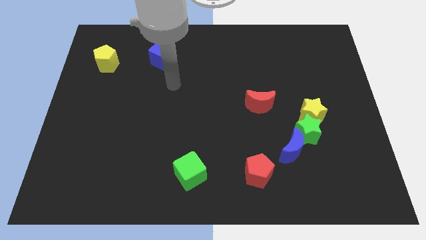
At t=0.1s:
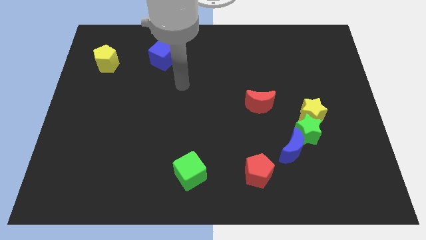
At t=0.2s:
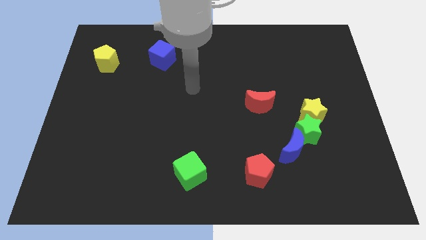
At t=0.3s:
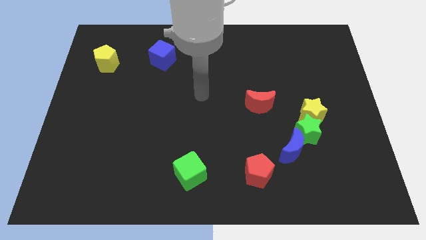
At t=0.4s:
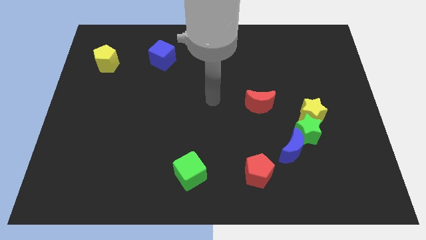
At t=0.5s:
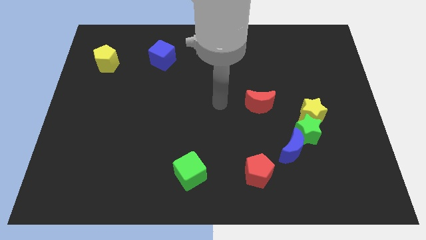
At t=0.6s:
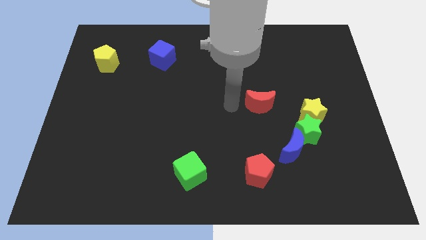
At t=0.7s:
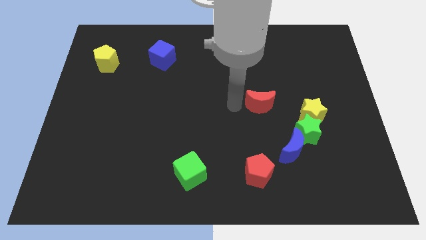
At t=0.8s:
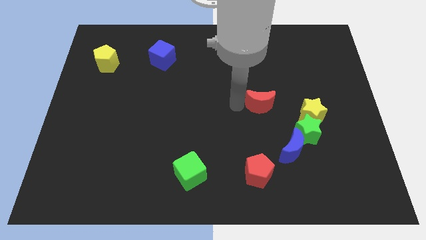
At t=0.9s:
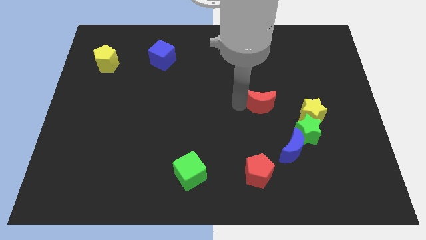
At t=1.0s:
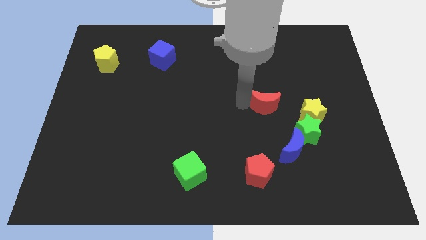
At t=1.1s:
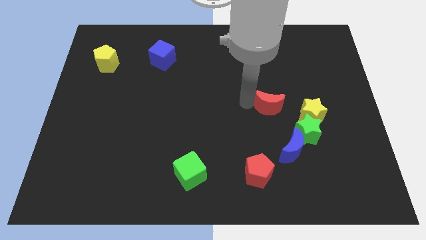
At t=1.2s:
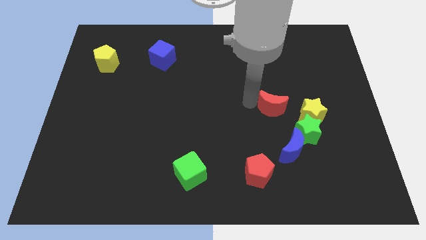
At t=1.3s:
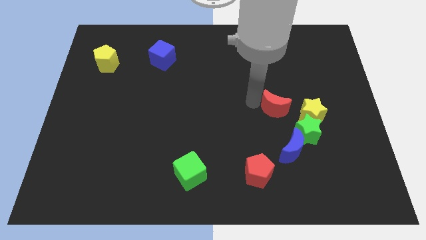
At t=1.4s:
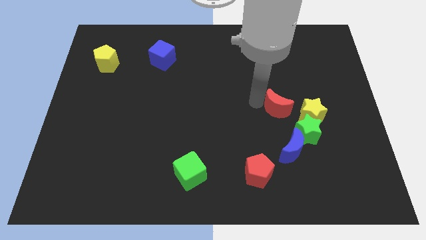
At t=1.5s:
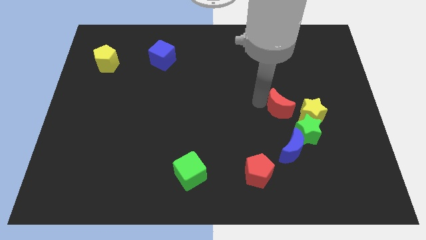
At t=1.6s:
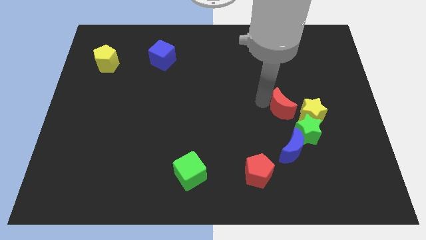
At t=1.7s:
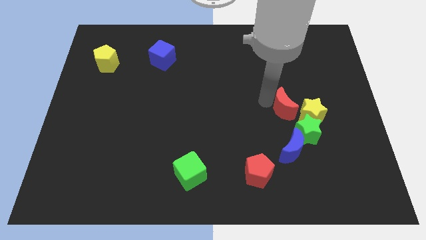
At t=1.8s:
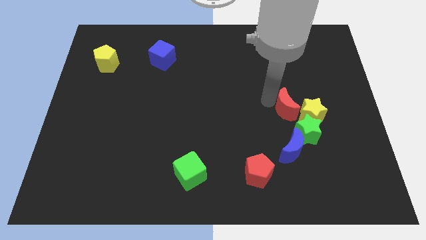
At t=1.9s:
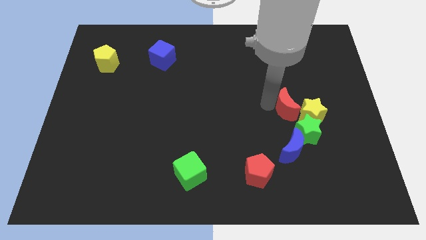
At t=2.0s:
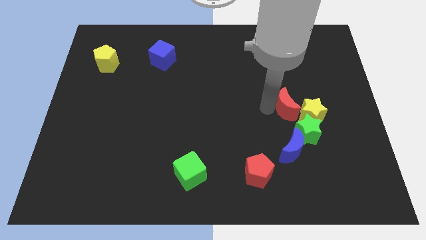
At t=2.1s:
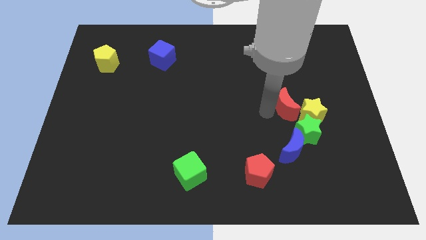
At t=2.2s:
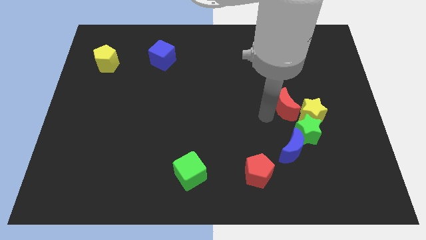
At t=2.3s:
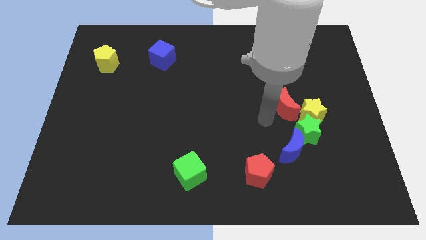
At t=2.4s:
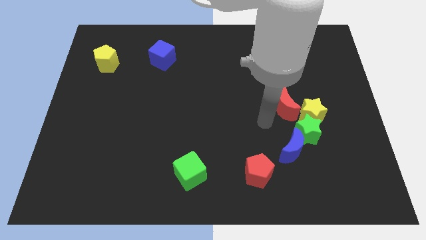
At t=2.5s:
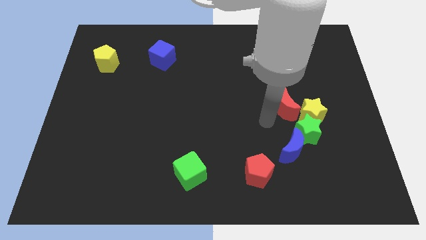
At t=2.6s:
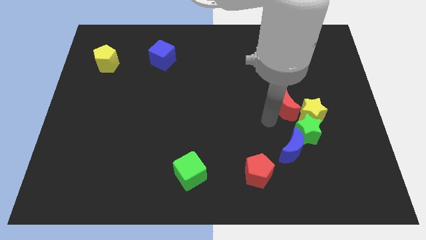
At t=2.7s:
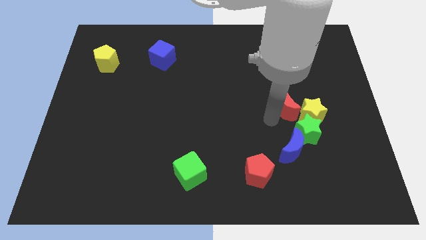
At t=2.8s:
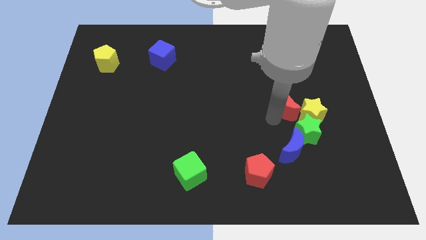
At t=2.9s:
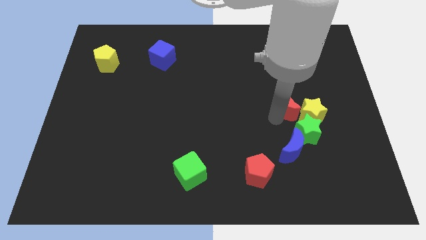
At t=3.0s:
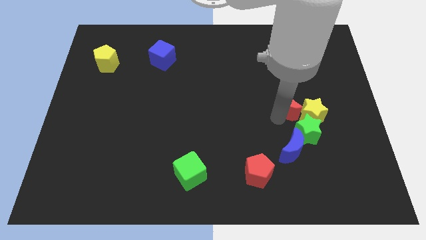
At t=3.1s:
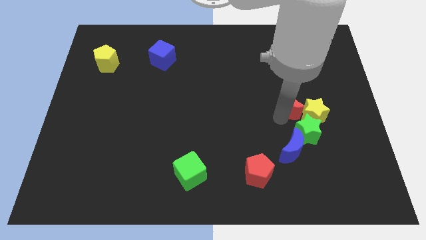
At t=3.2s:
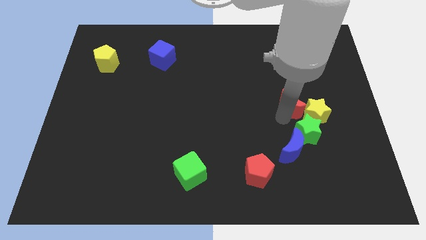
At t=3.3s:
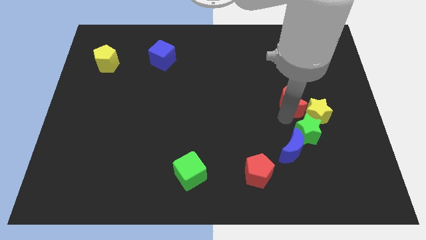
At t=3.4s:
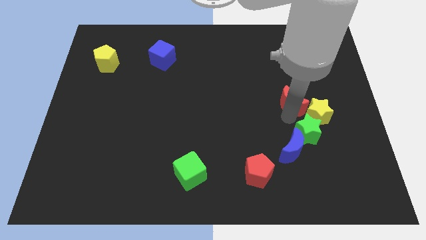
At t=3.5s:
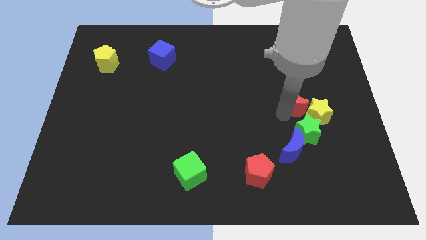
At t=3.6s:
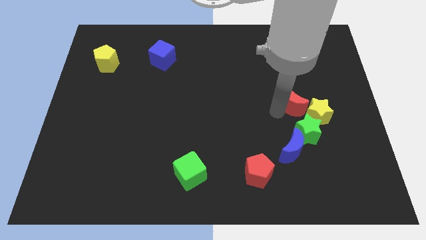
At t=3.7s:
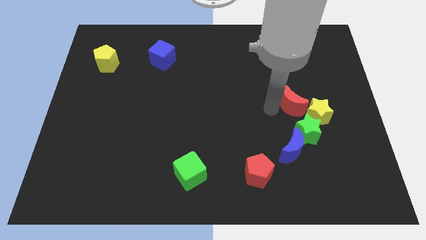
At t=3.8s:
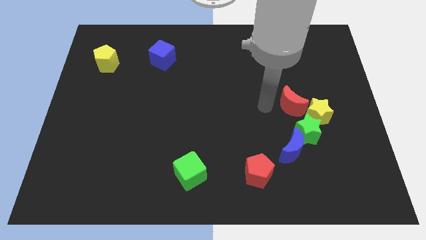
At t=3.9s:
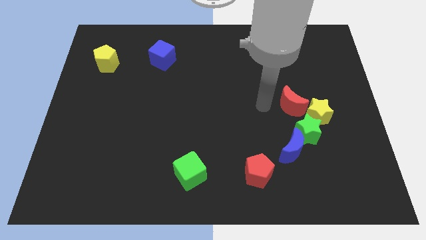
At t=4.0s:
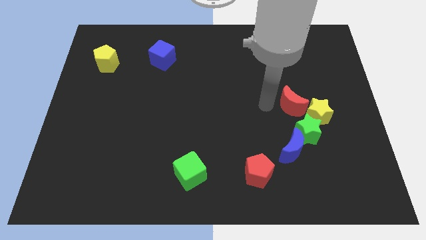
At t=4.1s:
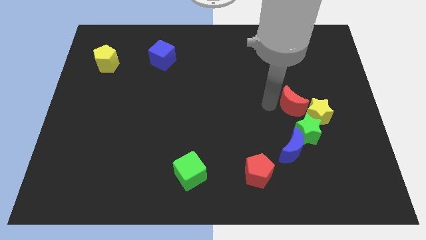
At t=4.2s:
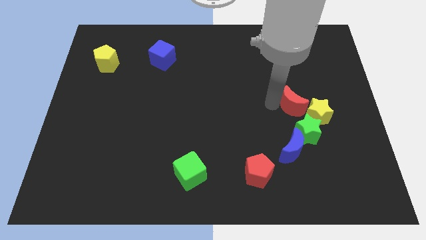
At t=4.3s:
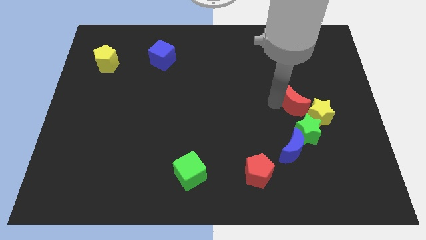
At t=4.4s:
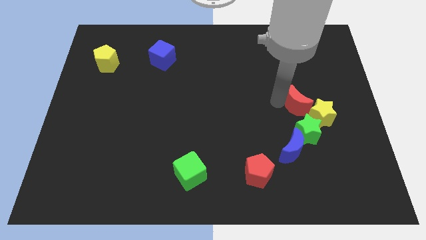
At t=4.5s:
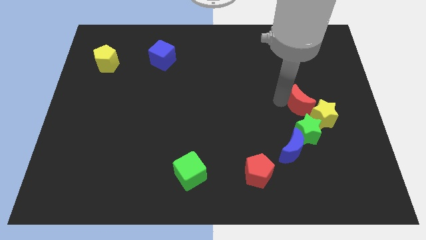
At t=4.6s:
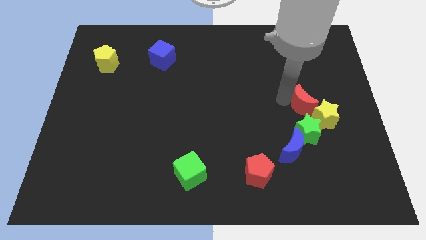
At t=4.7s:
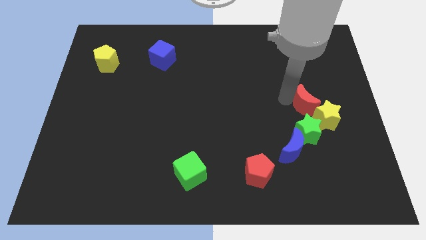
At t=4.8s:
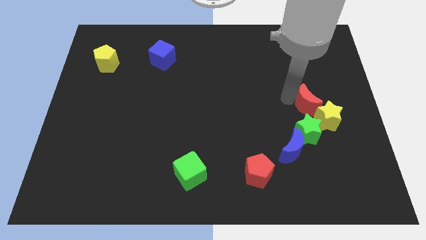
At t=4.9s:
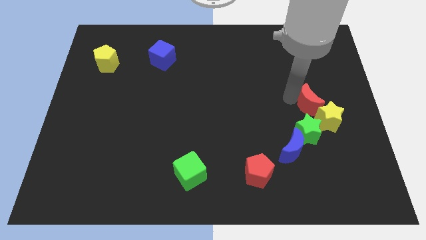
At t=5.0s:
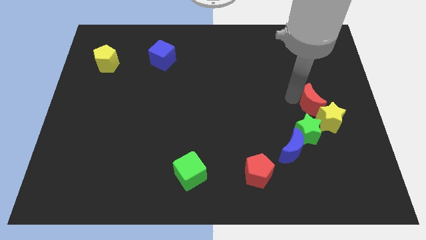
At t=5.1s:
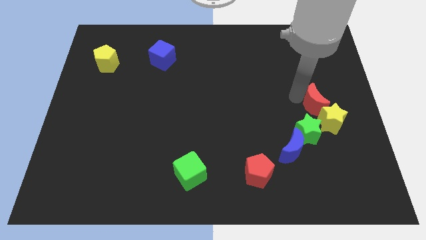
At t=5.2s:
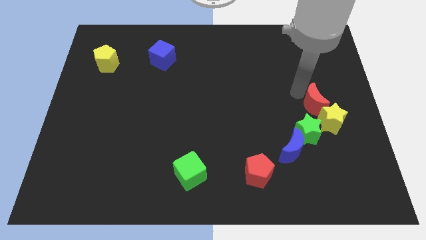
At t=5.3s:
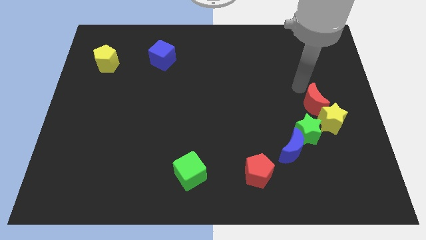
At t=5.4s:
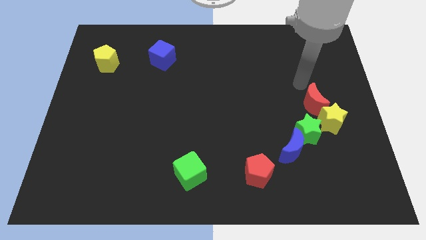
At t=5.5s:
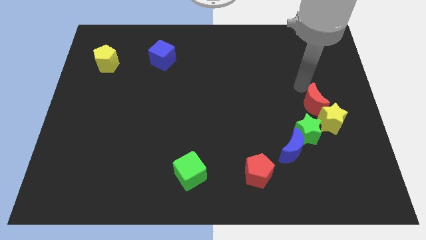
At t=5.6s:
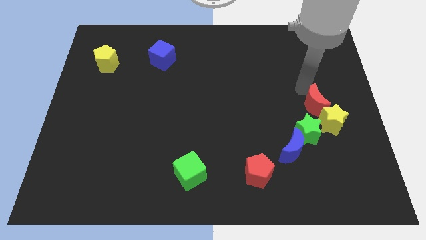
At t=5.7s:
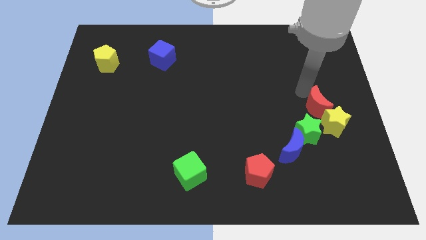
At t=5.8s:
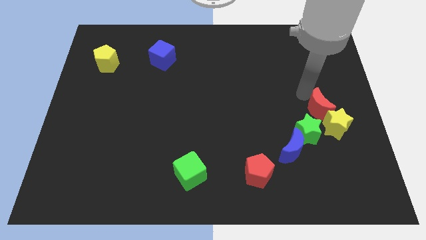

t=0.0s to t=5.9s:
slide the red moon down and then to the right a little

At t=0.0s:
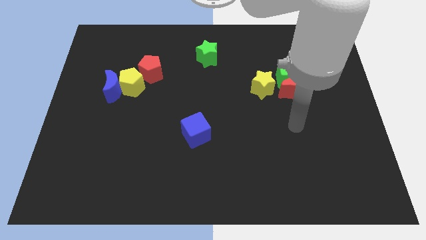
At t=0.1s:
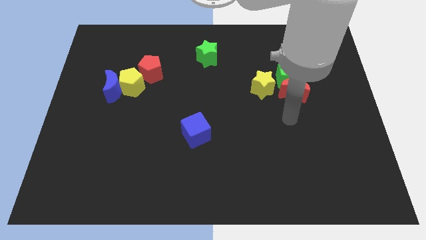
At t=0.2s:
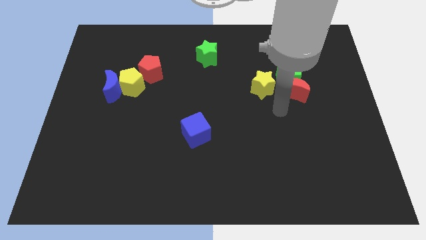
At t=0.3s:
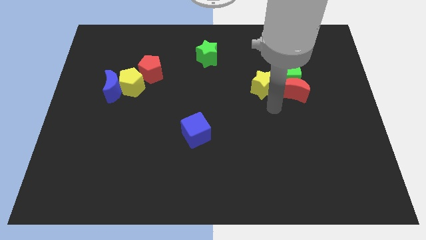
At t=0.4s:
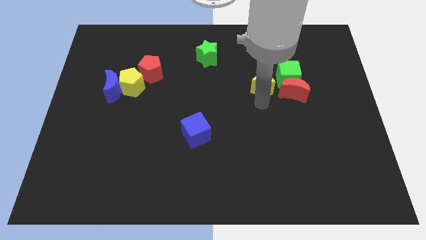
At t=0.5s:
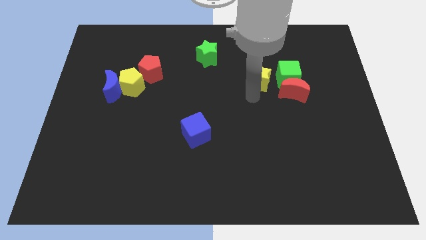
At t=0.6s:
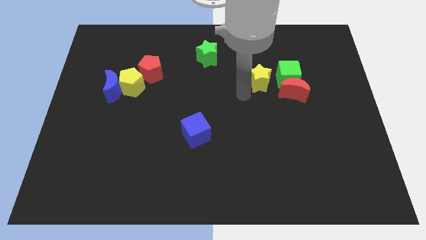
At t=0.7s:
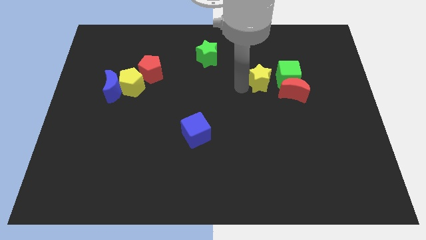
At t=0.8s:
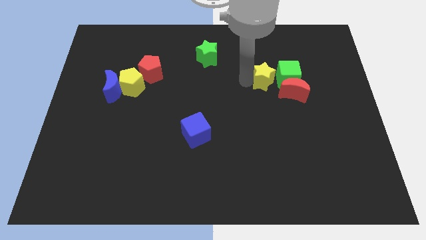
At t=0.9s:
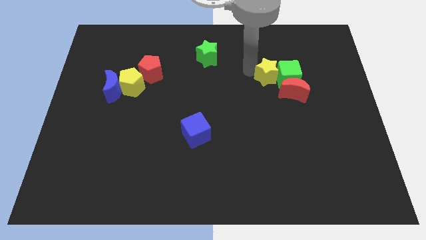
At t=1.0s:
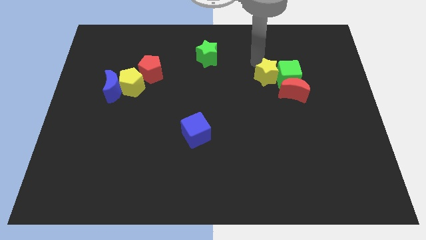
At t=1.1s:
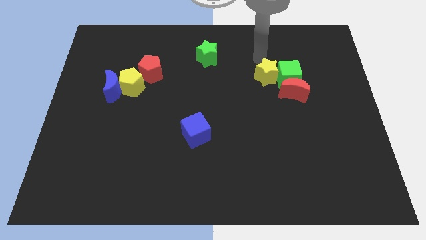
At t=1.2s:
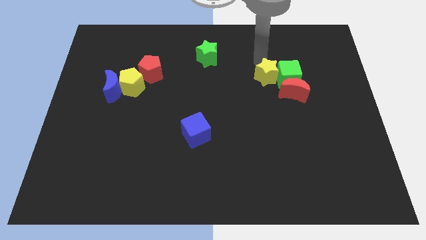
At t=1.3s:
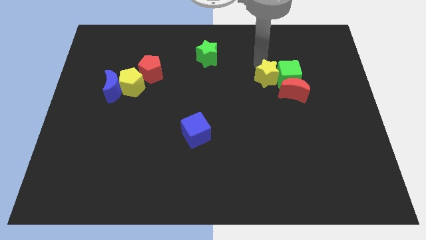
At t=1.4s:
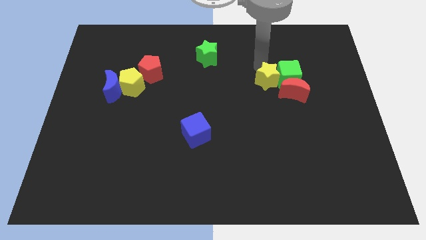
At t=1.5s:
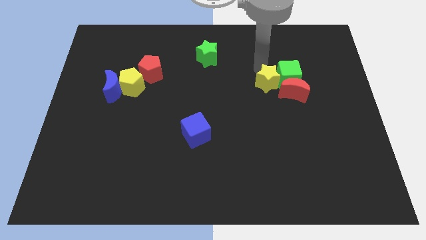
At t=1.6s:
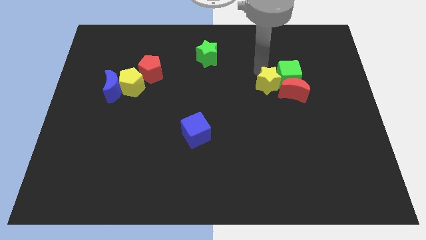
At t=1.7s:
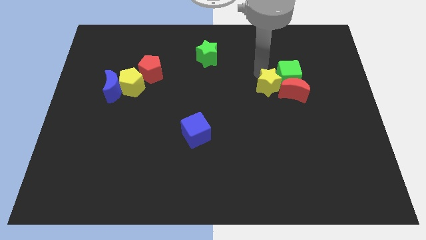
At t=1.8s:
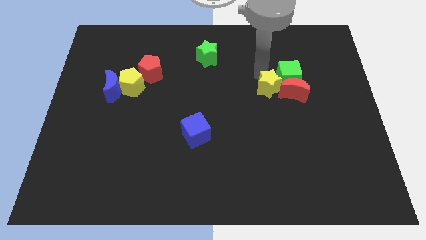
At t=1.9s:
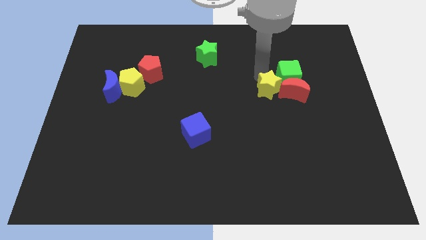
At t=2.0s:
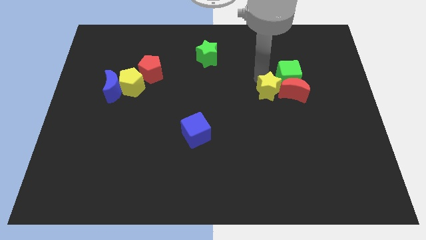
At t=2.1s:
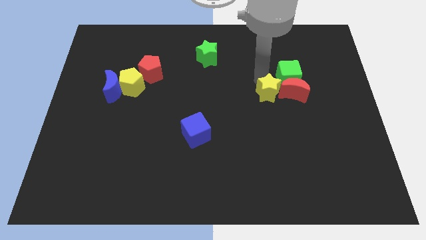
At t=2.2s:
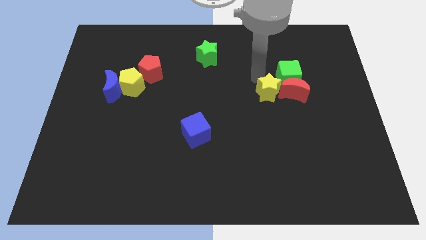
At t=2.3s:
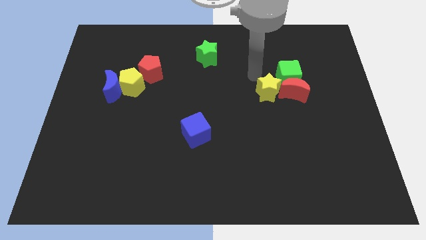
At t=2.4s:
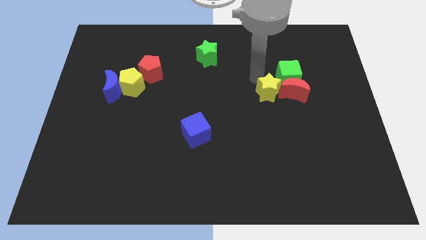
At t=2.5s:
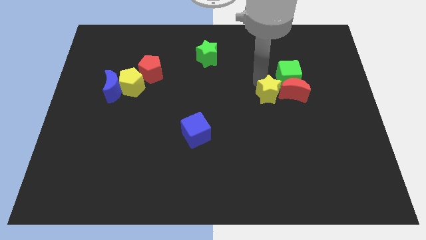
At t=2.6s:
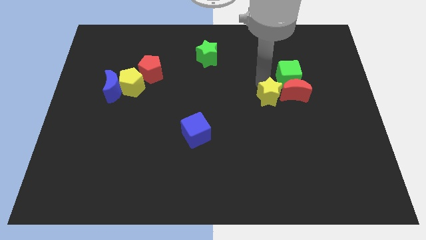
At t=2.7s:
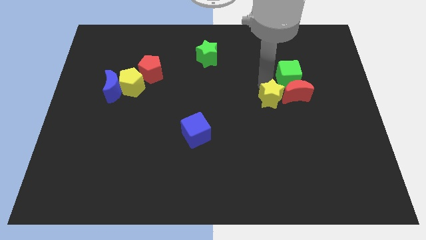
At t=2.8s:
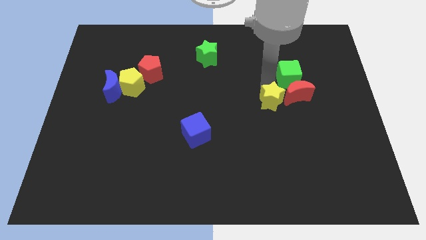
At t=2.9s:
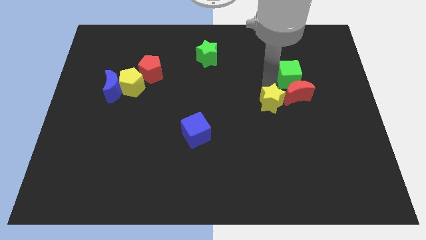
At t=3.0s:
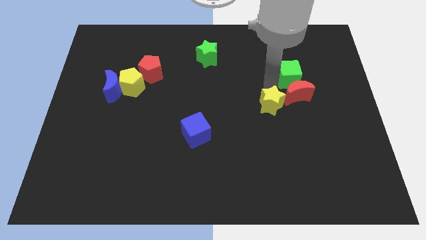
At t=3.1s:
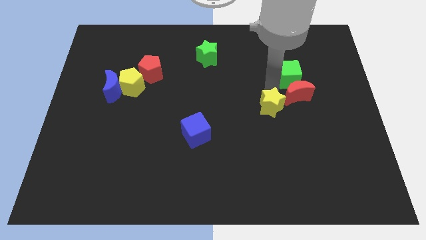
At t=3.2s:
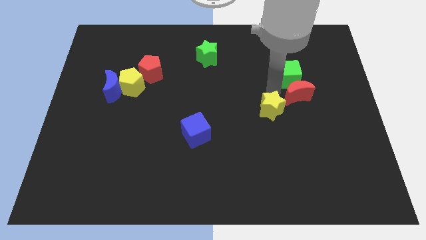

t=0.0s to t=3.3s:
move the yellow star downwards a bit
